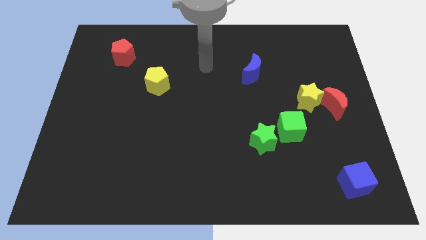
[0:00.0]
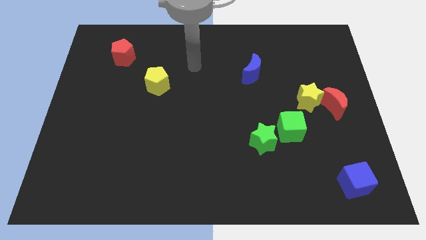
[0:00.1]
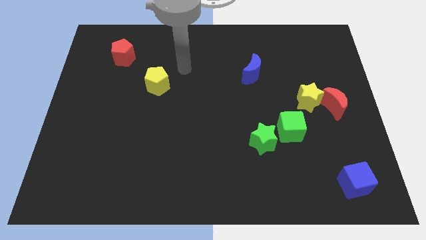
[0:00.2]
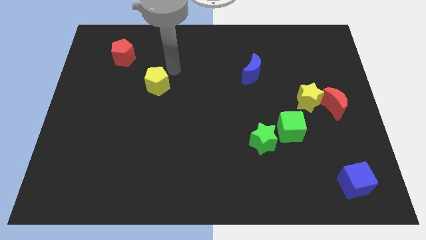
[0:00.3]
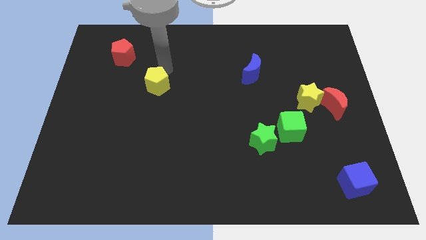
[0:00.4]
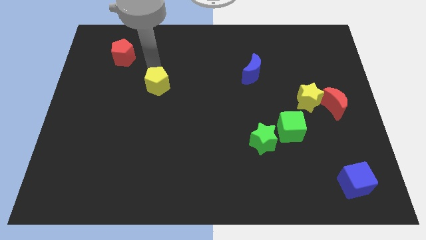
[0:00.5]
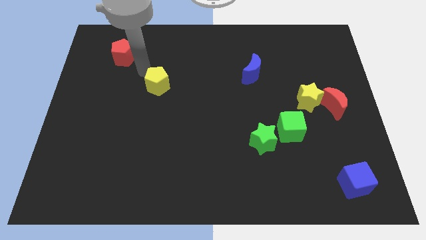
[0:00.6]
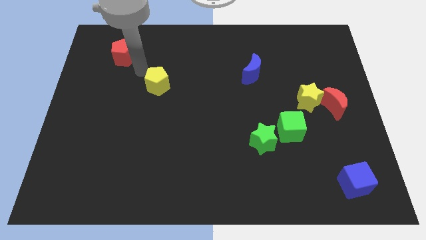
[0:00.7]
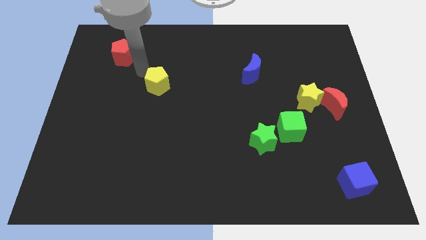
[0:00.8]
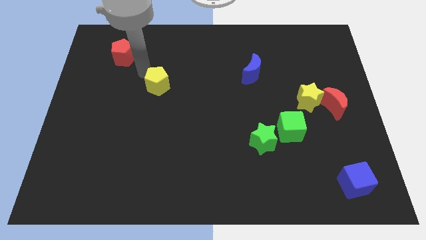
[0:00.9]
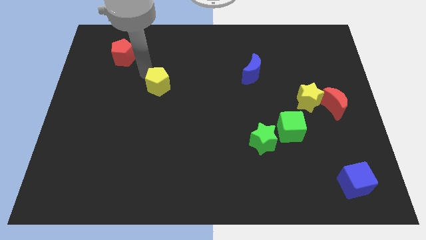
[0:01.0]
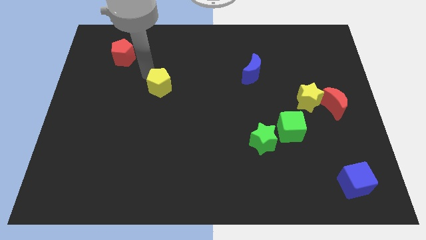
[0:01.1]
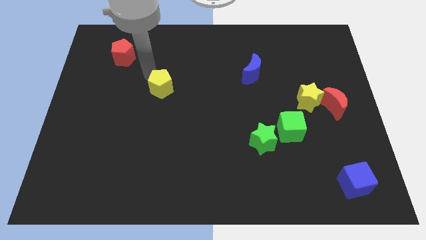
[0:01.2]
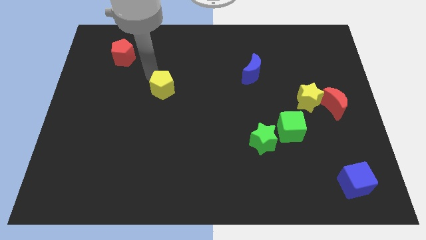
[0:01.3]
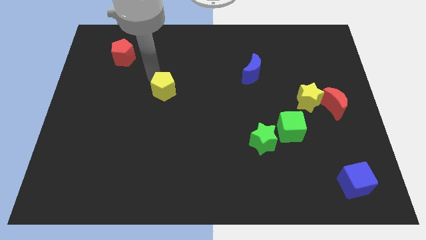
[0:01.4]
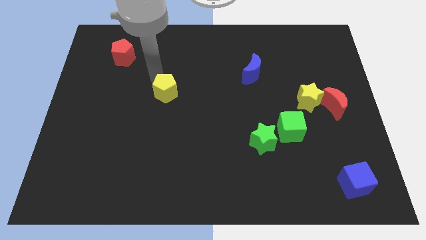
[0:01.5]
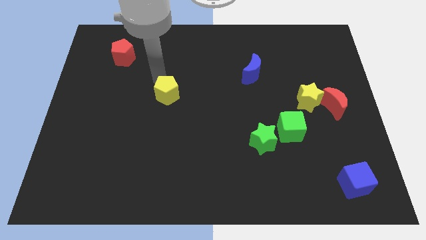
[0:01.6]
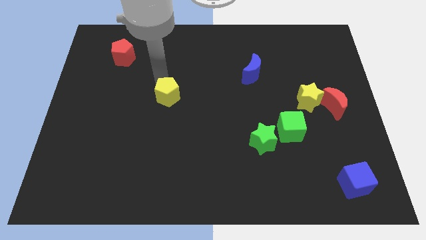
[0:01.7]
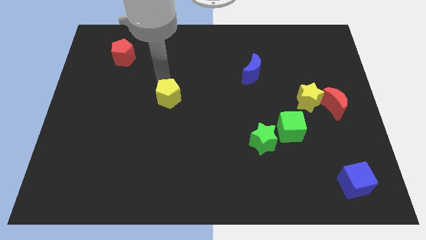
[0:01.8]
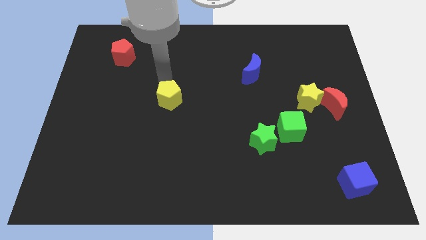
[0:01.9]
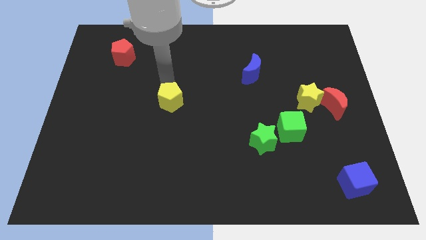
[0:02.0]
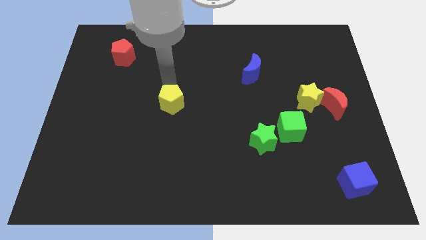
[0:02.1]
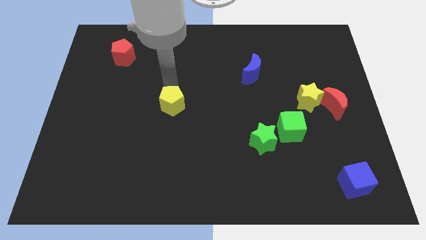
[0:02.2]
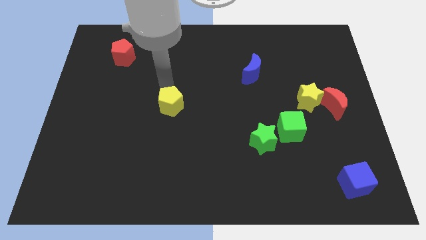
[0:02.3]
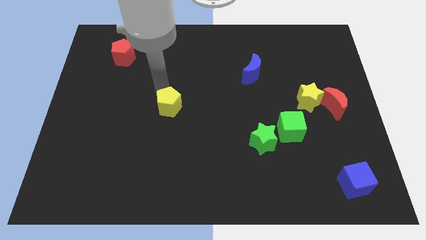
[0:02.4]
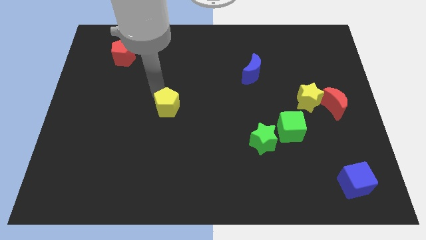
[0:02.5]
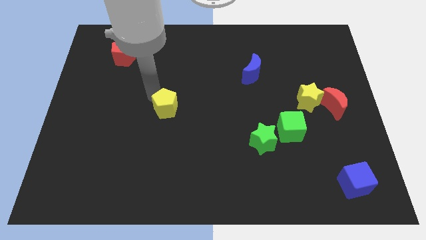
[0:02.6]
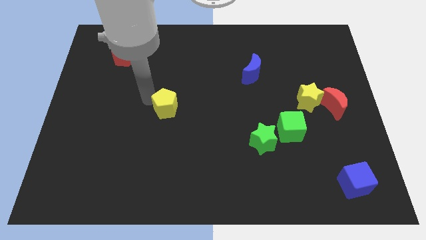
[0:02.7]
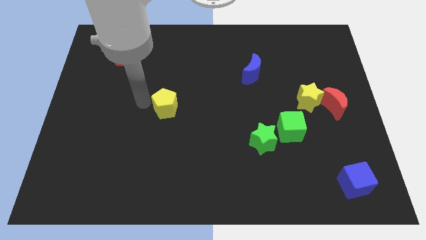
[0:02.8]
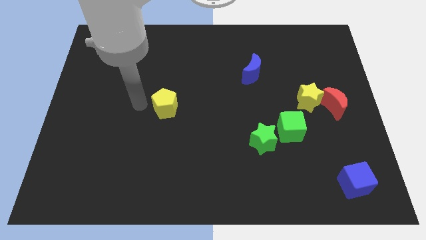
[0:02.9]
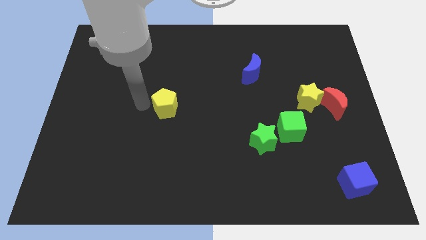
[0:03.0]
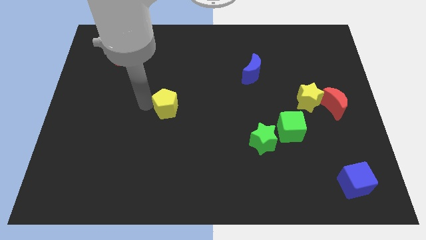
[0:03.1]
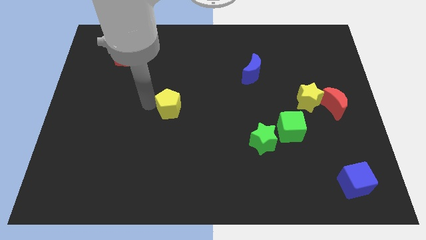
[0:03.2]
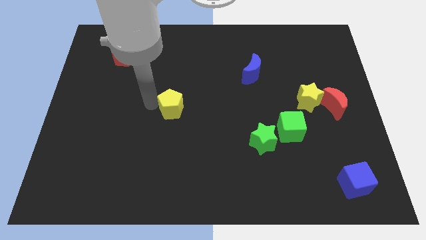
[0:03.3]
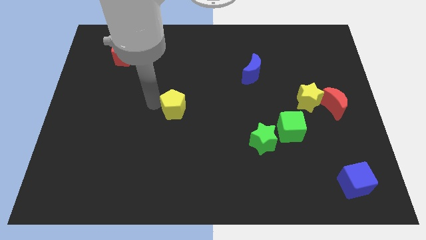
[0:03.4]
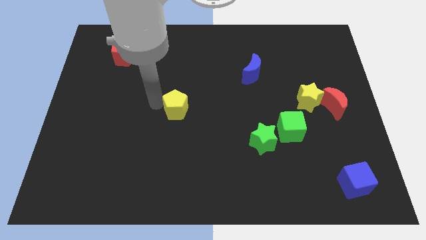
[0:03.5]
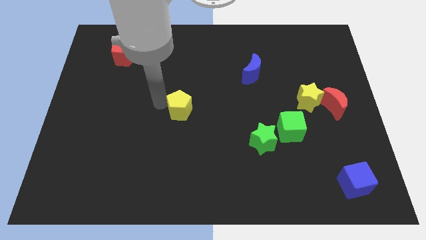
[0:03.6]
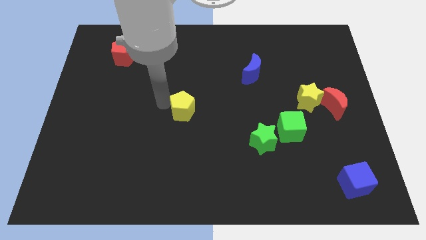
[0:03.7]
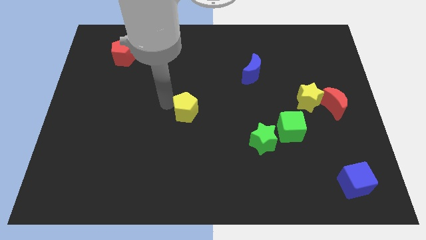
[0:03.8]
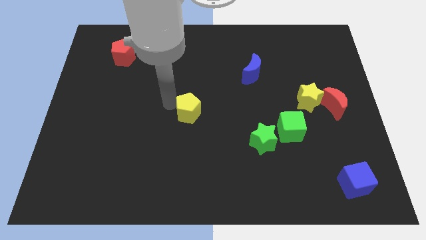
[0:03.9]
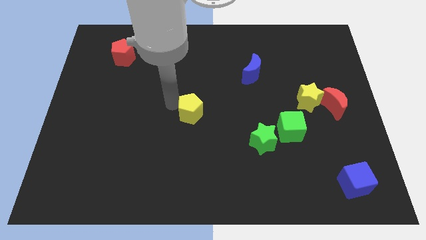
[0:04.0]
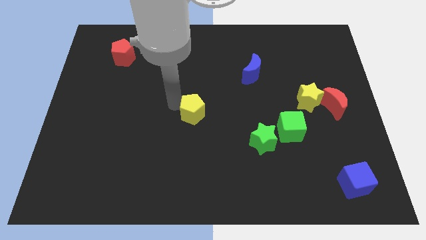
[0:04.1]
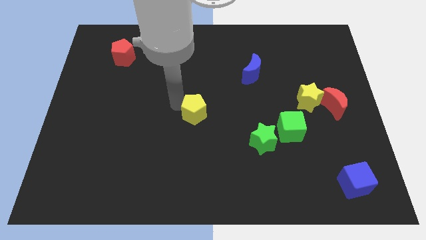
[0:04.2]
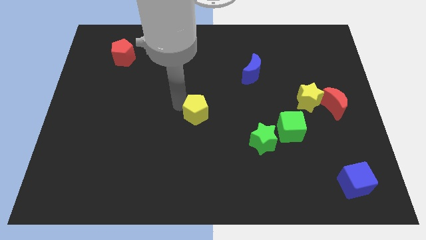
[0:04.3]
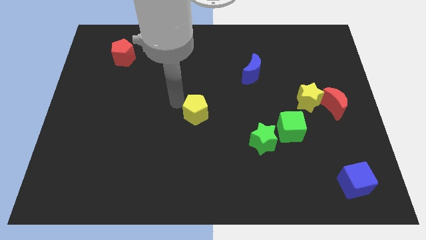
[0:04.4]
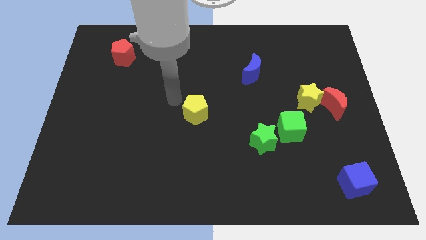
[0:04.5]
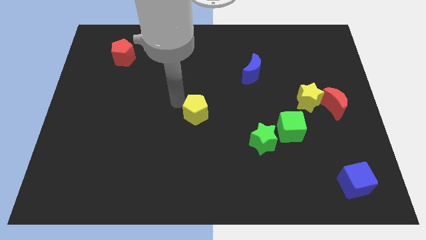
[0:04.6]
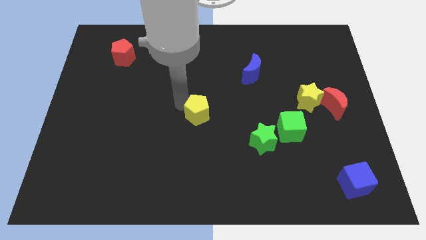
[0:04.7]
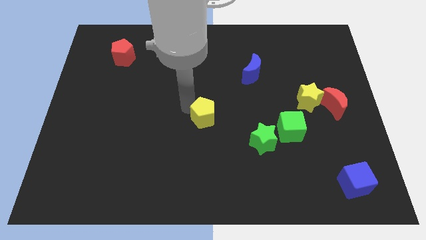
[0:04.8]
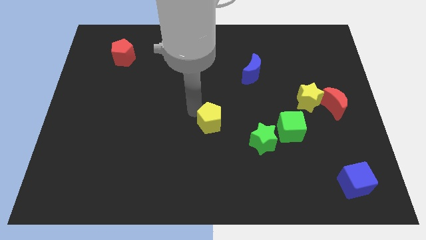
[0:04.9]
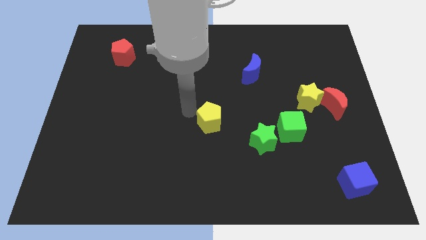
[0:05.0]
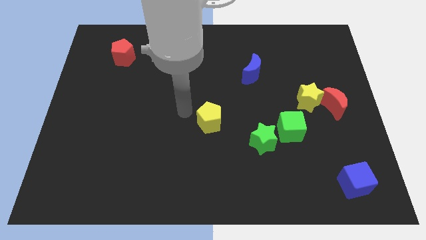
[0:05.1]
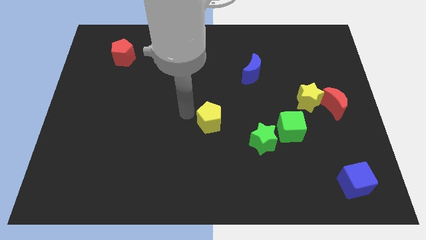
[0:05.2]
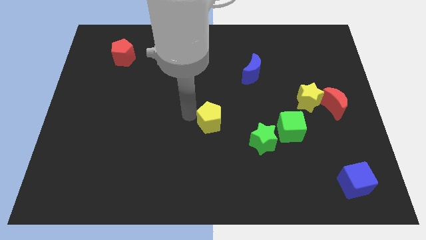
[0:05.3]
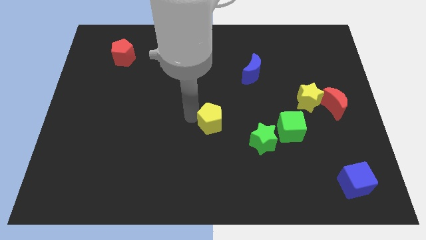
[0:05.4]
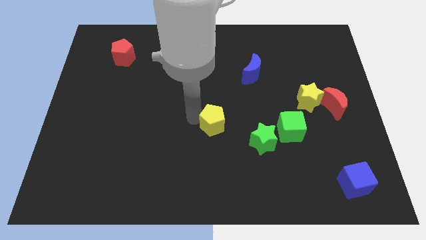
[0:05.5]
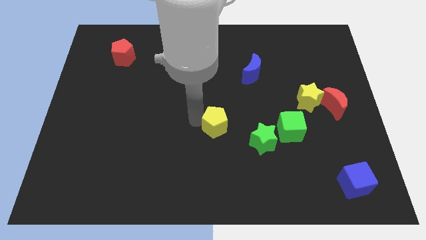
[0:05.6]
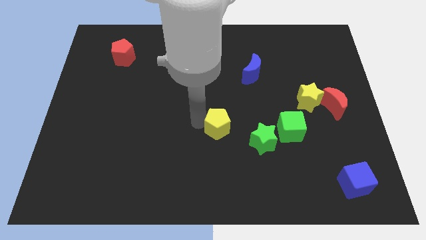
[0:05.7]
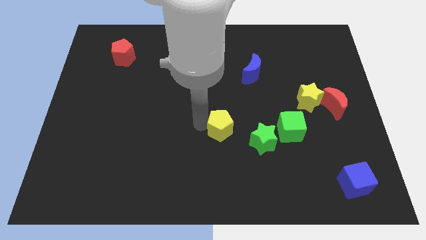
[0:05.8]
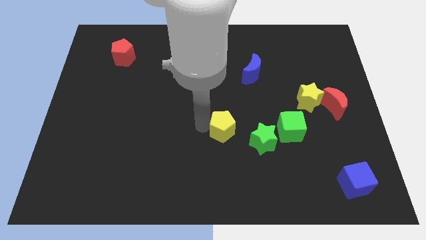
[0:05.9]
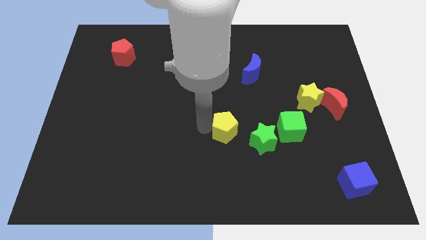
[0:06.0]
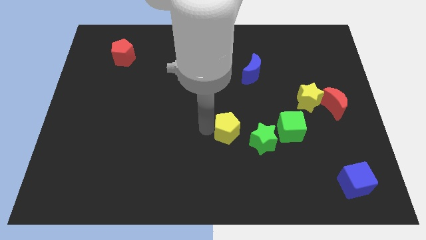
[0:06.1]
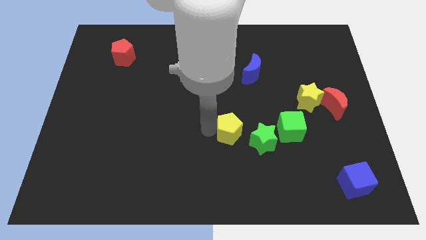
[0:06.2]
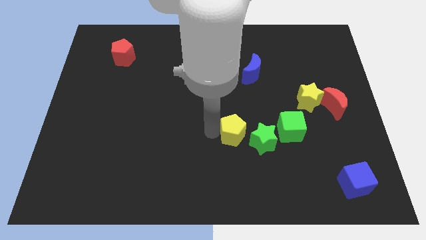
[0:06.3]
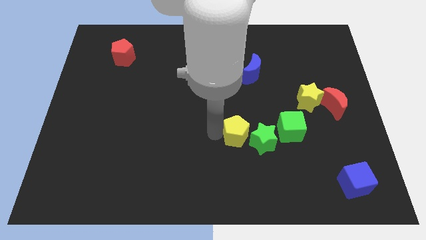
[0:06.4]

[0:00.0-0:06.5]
move the yellow pentagon towards the green star

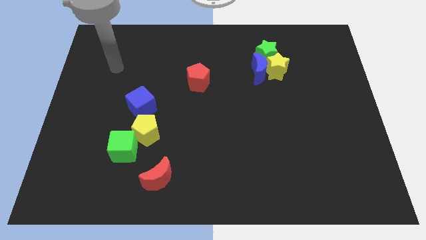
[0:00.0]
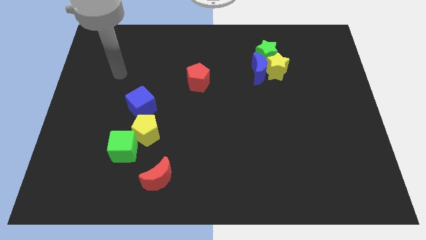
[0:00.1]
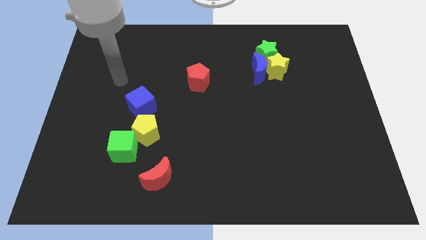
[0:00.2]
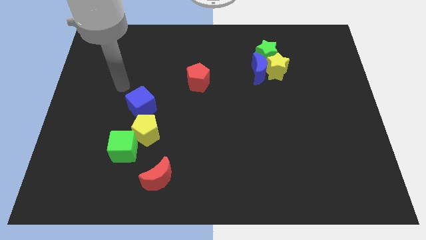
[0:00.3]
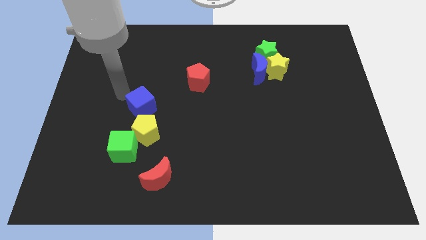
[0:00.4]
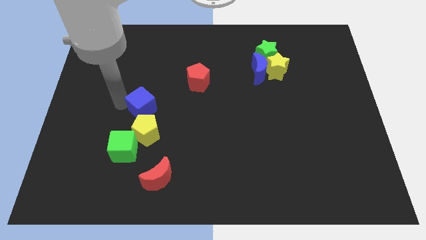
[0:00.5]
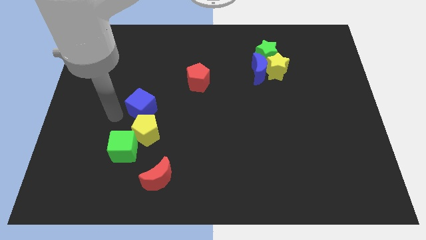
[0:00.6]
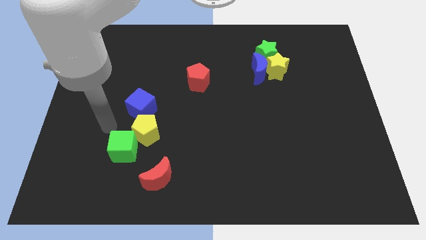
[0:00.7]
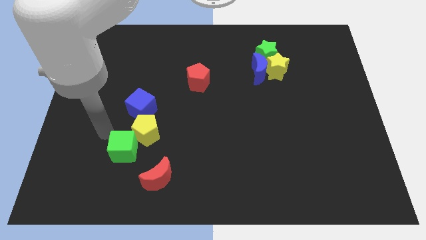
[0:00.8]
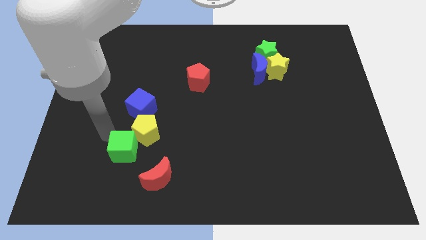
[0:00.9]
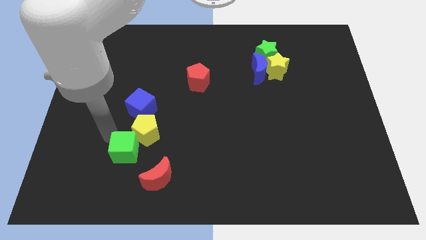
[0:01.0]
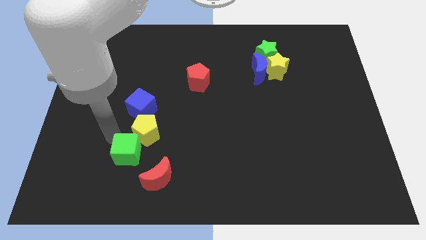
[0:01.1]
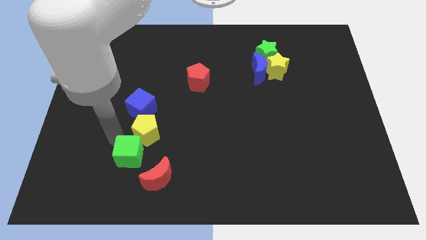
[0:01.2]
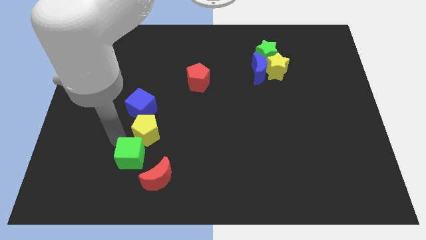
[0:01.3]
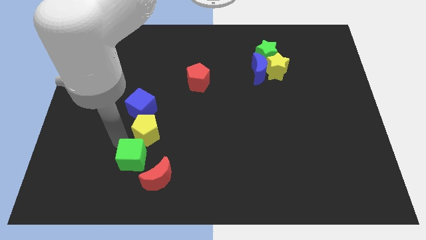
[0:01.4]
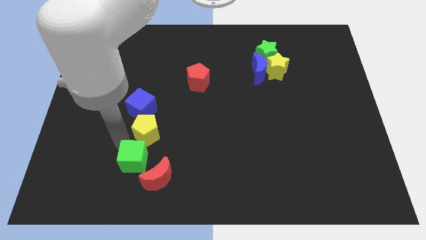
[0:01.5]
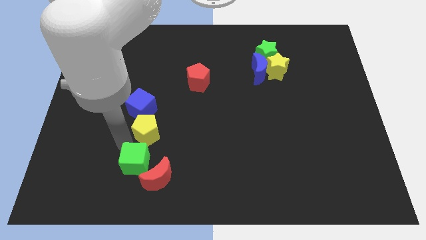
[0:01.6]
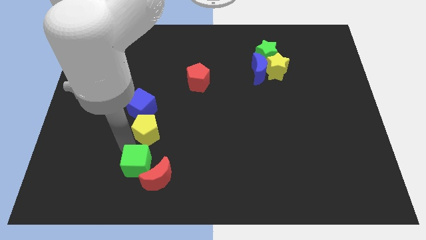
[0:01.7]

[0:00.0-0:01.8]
slide the green cube next to the red moon
